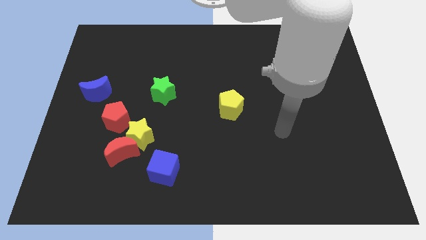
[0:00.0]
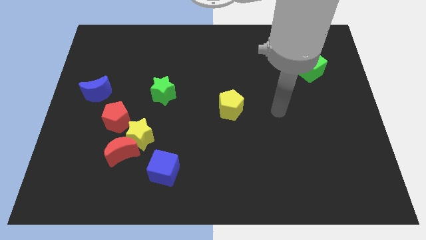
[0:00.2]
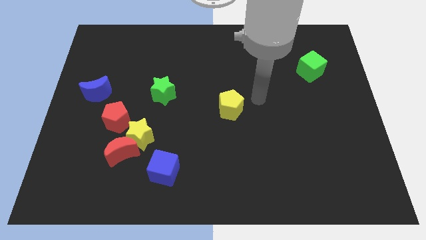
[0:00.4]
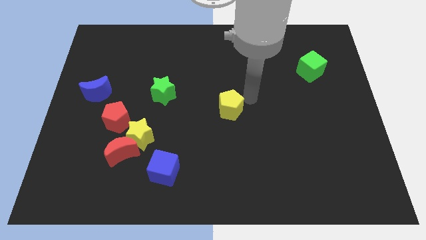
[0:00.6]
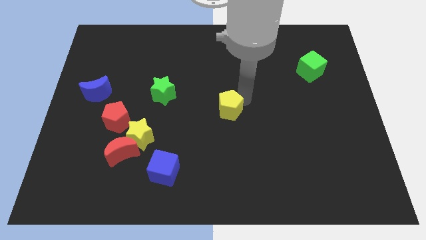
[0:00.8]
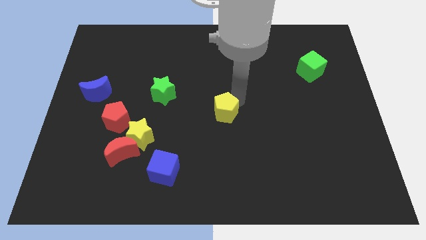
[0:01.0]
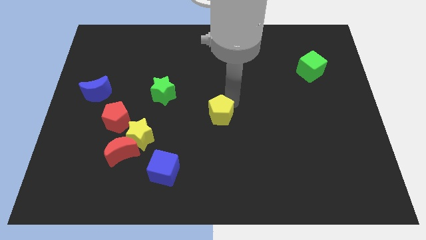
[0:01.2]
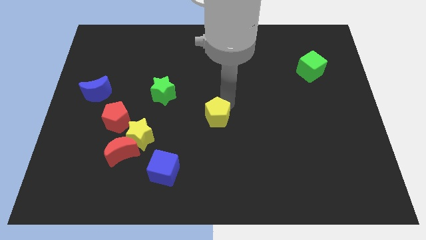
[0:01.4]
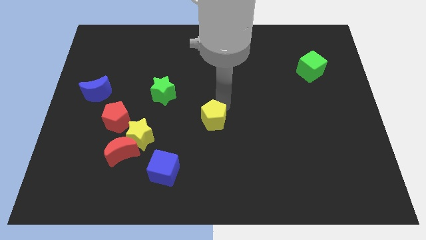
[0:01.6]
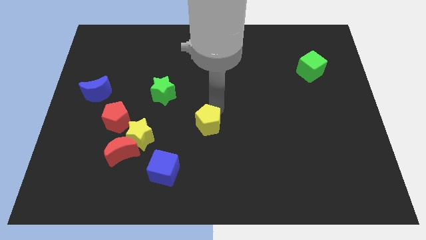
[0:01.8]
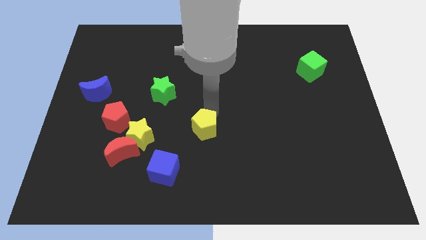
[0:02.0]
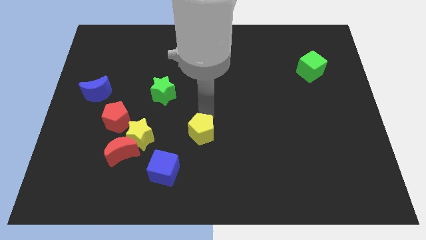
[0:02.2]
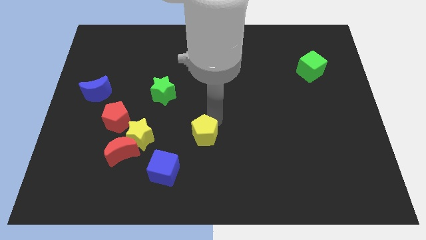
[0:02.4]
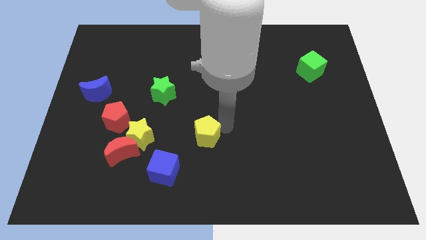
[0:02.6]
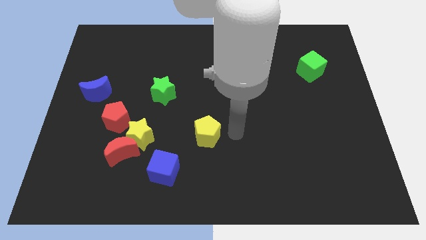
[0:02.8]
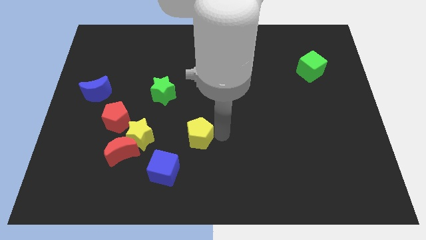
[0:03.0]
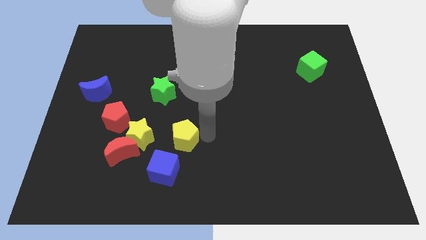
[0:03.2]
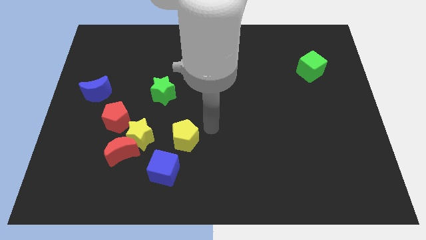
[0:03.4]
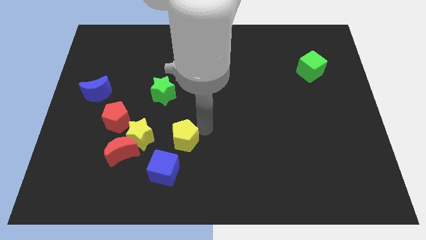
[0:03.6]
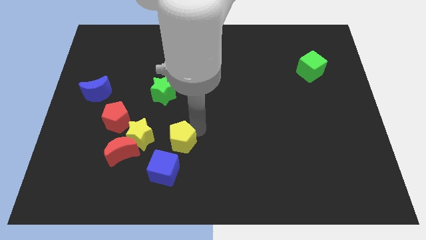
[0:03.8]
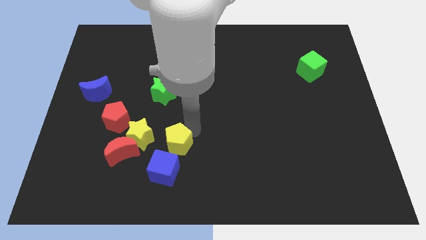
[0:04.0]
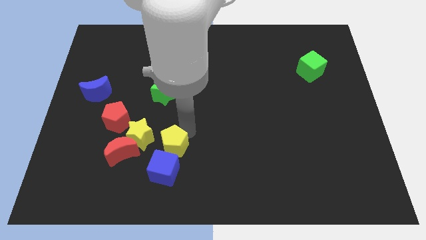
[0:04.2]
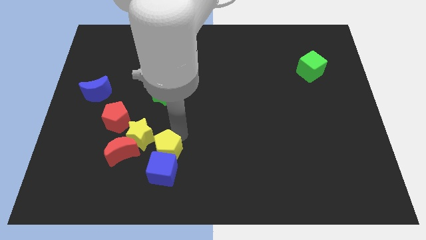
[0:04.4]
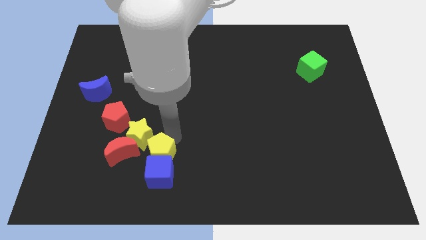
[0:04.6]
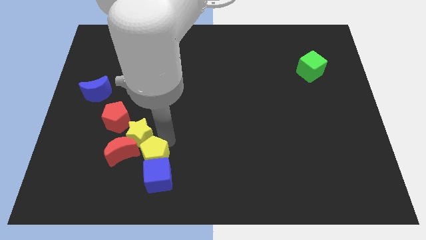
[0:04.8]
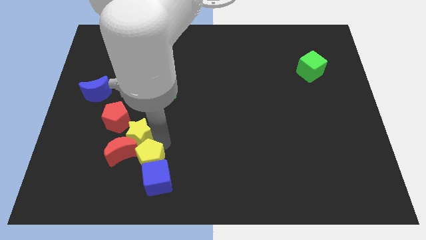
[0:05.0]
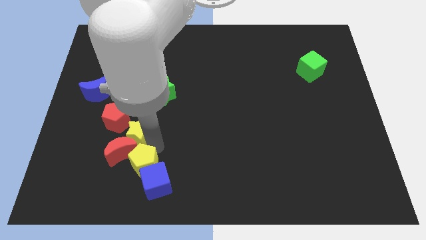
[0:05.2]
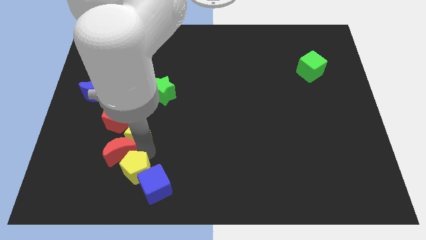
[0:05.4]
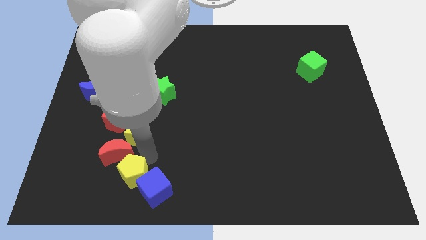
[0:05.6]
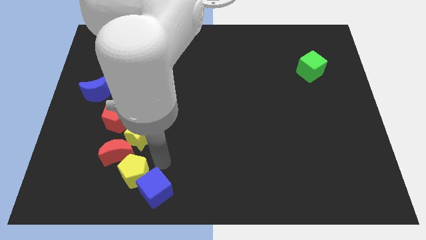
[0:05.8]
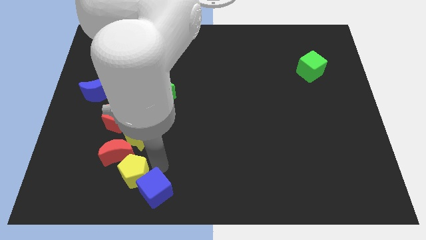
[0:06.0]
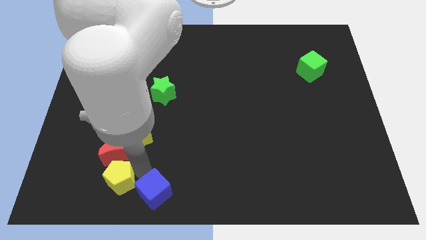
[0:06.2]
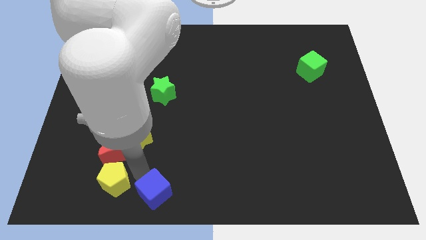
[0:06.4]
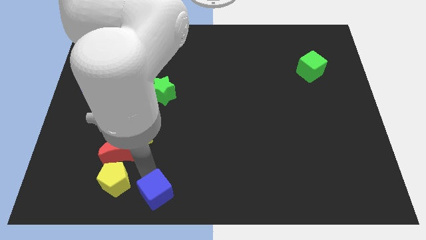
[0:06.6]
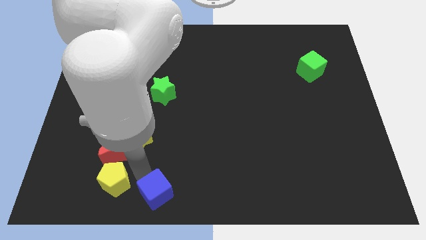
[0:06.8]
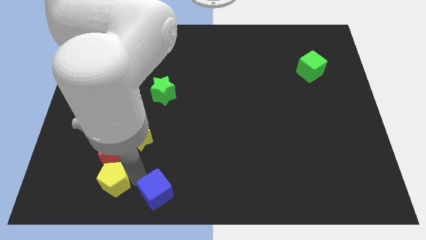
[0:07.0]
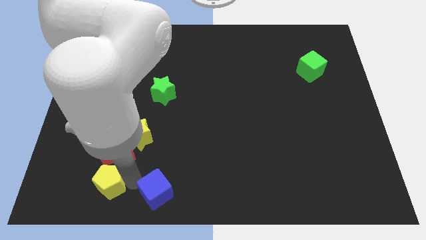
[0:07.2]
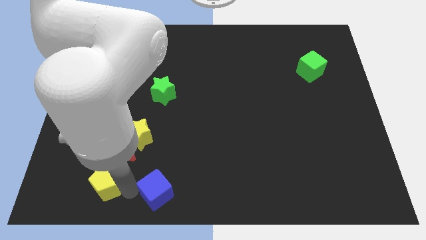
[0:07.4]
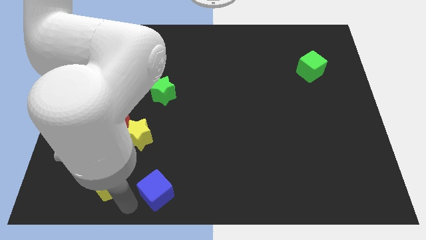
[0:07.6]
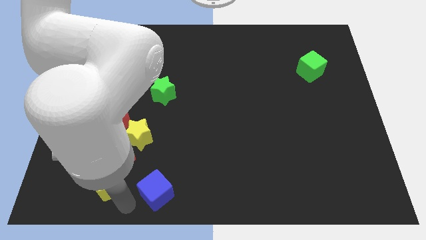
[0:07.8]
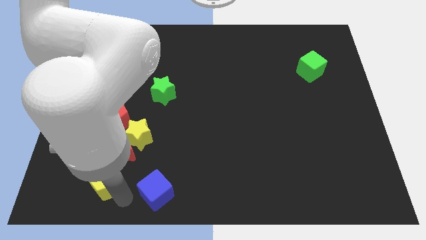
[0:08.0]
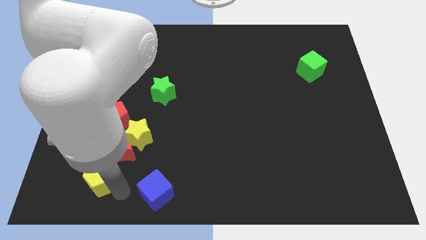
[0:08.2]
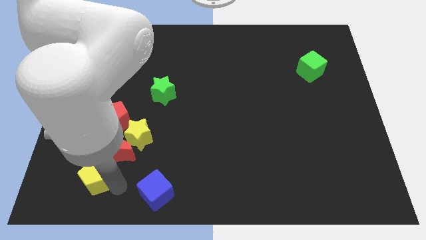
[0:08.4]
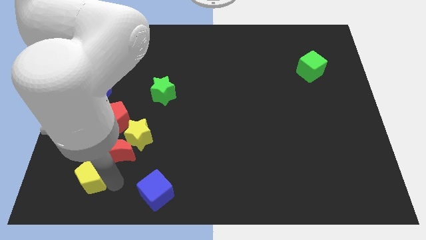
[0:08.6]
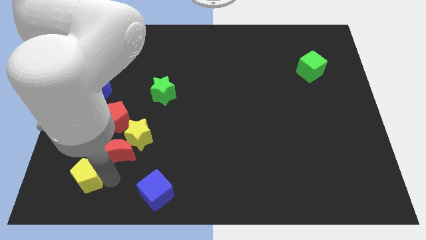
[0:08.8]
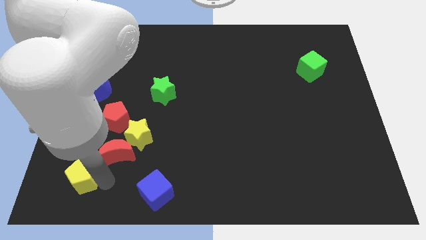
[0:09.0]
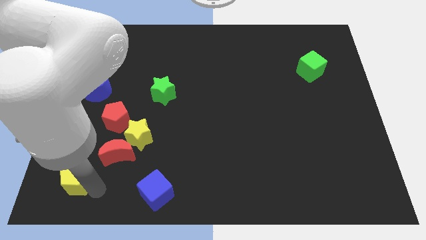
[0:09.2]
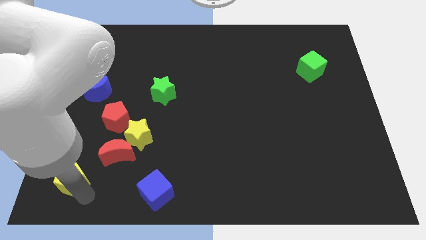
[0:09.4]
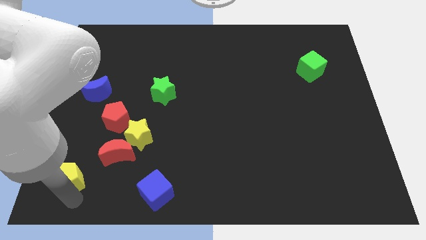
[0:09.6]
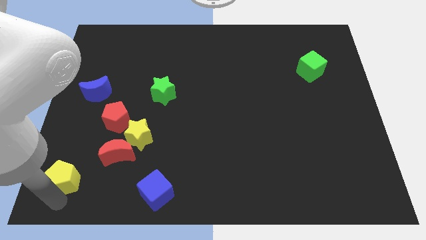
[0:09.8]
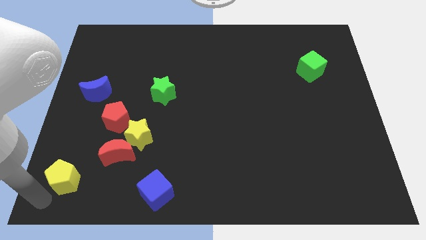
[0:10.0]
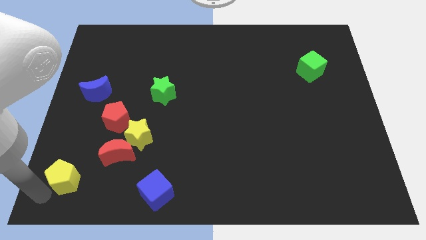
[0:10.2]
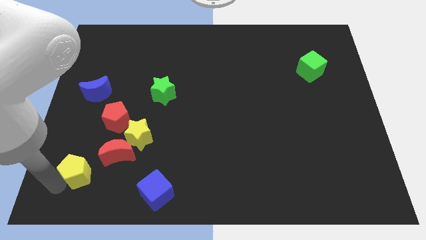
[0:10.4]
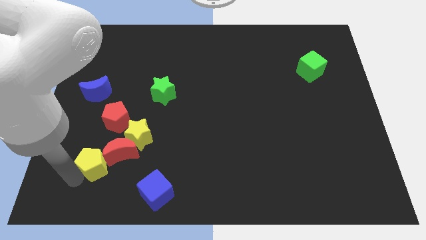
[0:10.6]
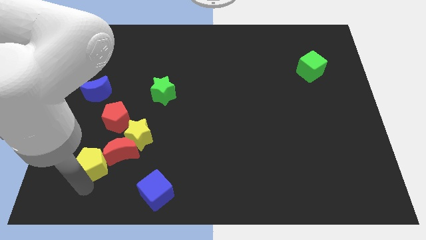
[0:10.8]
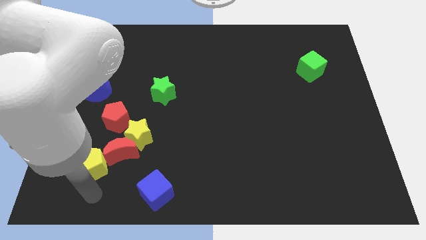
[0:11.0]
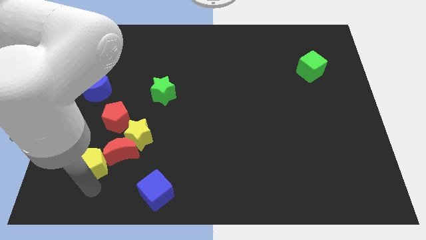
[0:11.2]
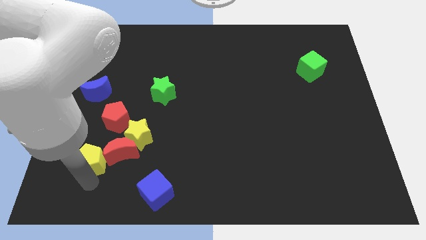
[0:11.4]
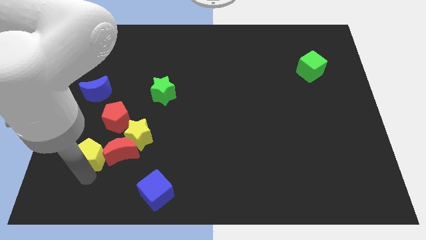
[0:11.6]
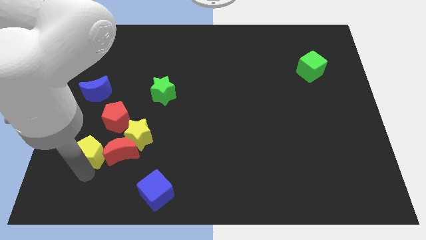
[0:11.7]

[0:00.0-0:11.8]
put the yellow pentagon left of the yellow star

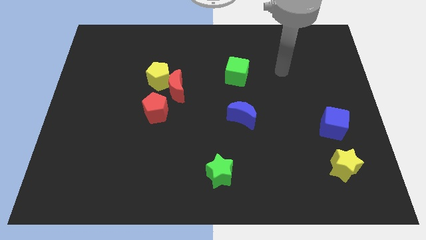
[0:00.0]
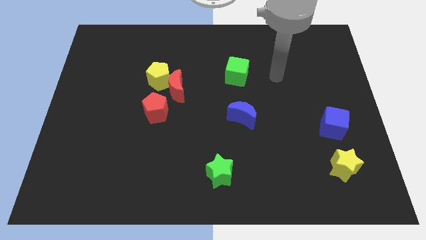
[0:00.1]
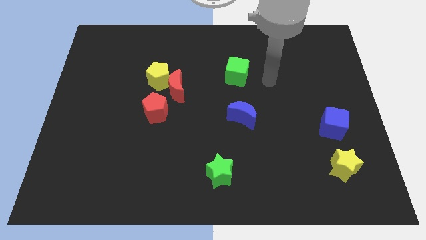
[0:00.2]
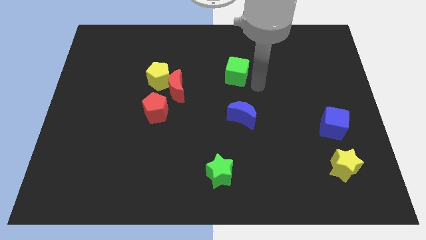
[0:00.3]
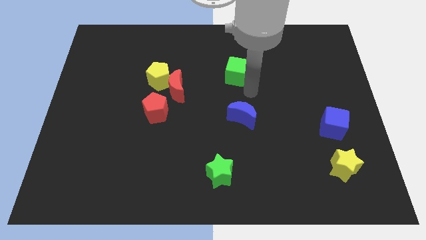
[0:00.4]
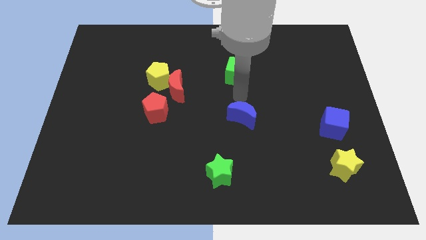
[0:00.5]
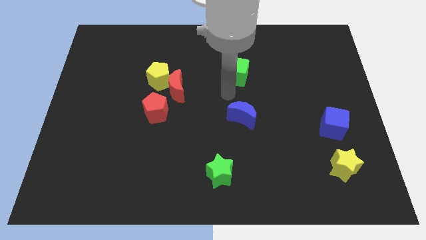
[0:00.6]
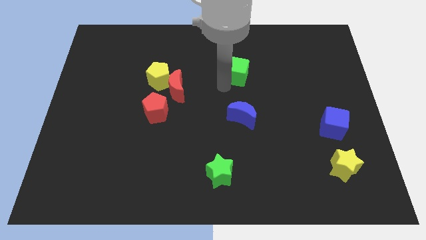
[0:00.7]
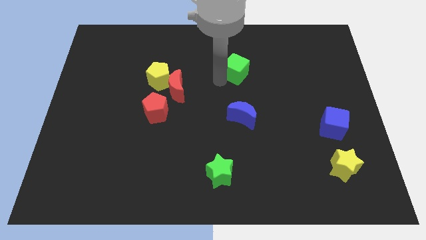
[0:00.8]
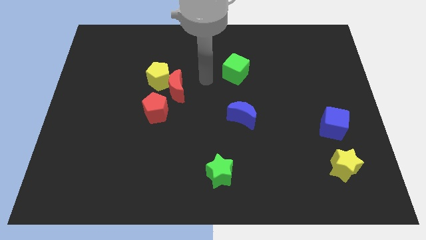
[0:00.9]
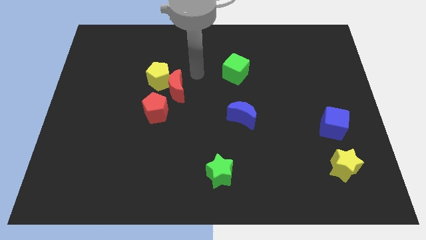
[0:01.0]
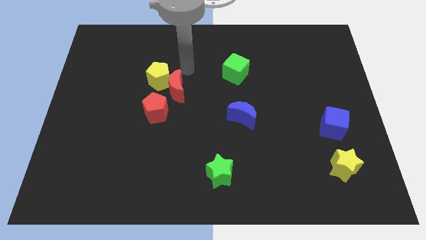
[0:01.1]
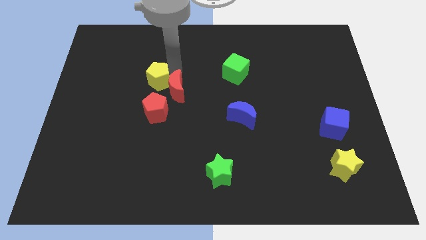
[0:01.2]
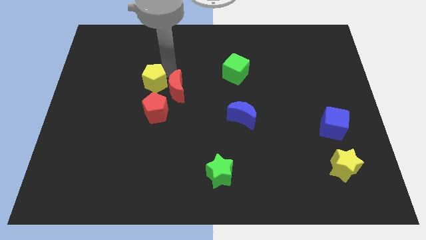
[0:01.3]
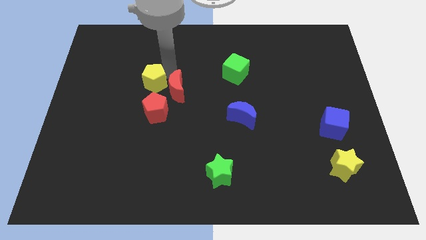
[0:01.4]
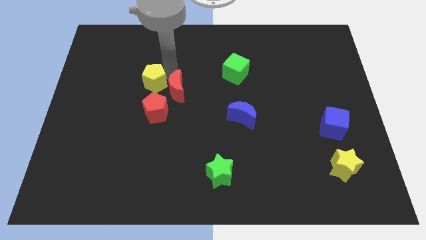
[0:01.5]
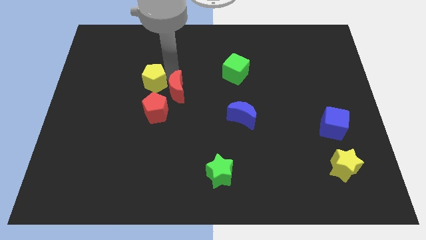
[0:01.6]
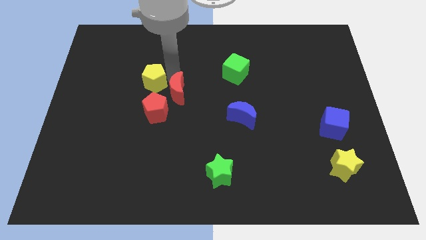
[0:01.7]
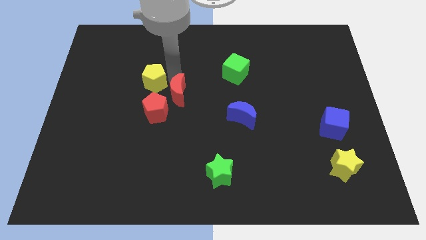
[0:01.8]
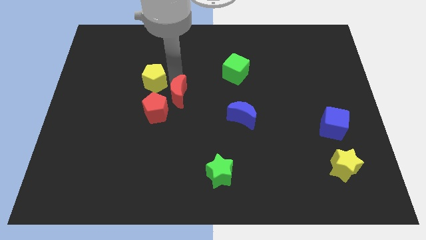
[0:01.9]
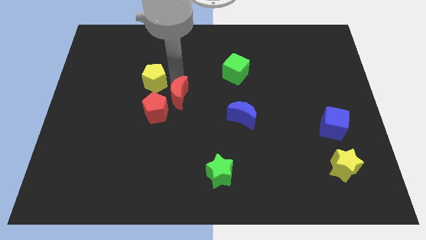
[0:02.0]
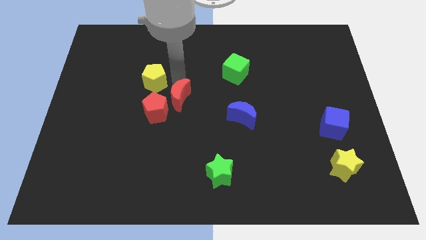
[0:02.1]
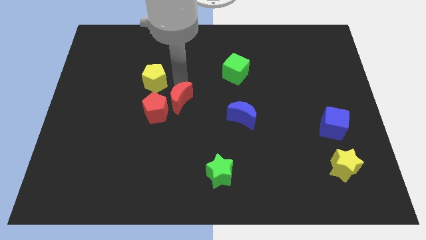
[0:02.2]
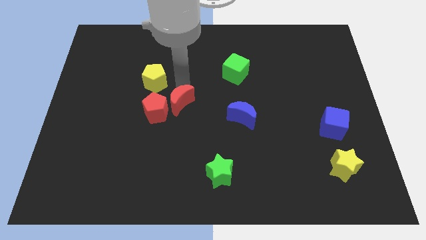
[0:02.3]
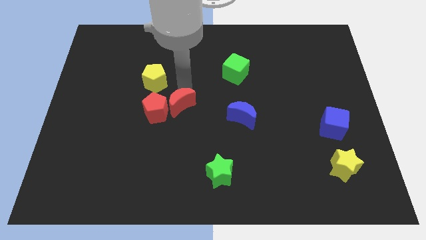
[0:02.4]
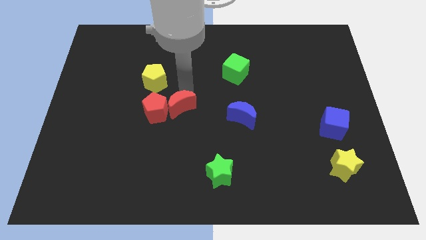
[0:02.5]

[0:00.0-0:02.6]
put the red moon diagonally down and to the right of the red pentagon
